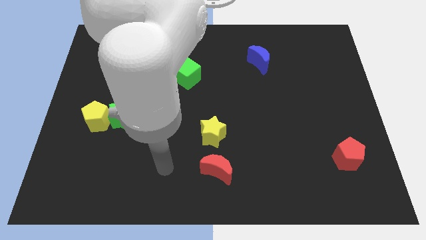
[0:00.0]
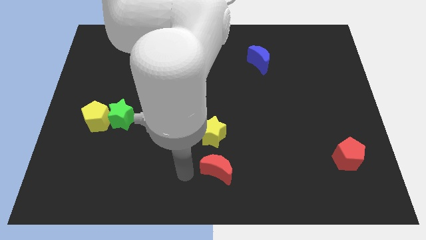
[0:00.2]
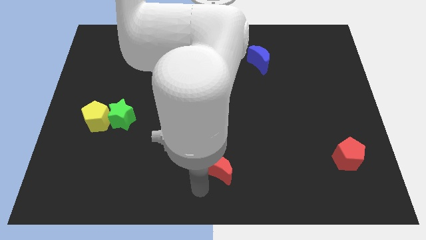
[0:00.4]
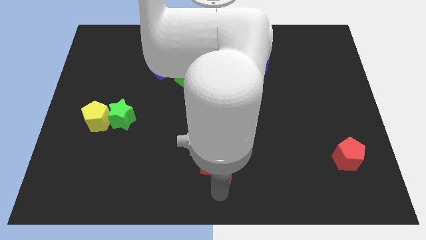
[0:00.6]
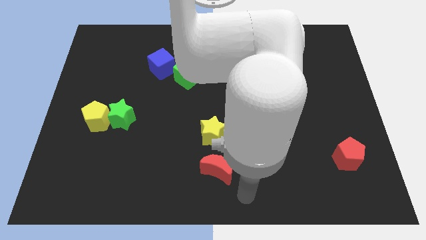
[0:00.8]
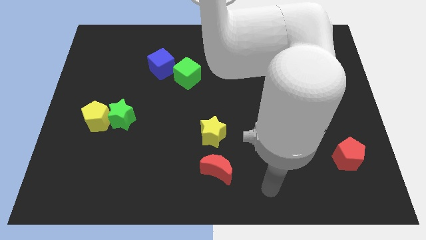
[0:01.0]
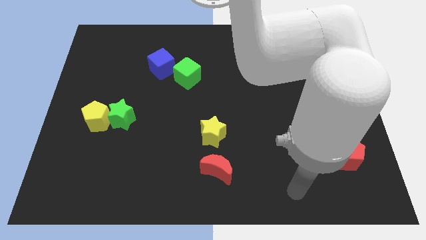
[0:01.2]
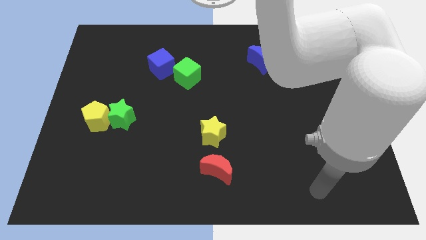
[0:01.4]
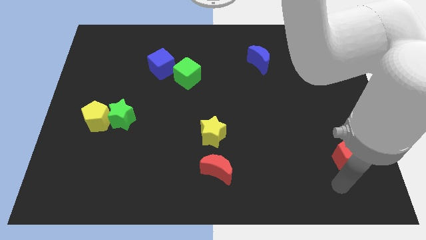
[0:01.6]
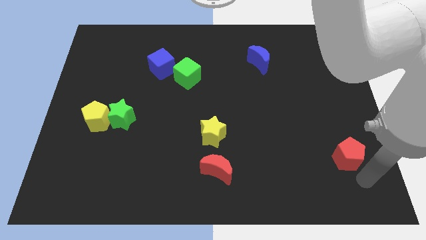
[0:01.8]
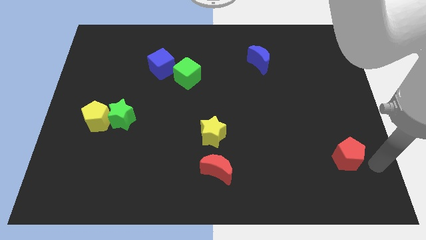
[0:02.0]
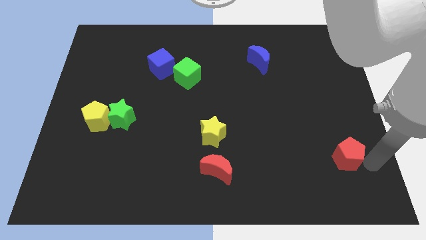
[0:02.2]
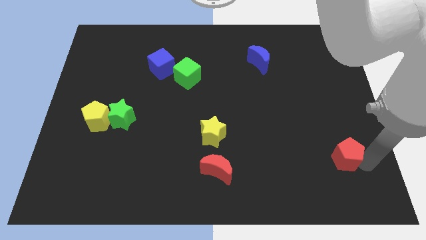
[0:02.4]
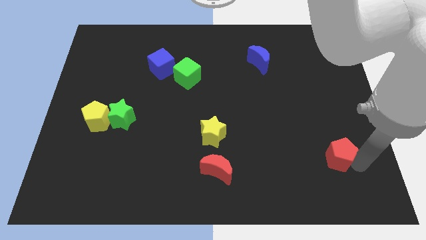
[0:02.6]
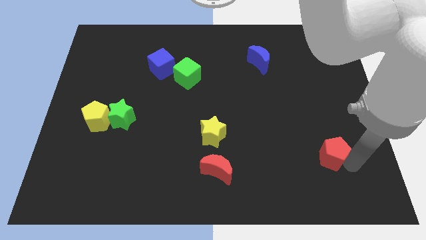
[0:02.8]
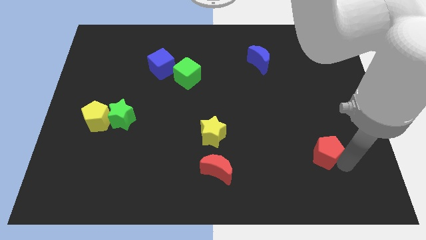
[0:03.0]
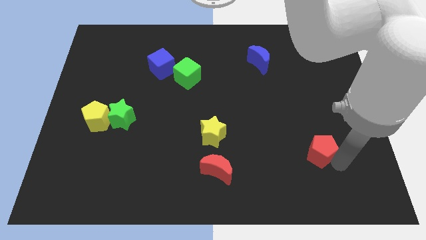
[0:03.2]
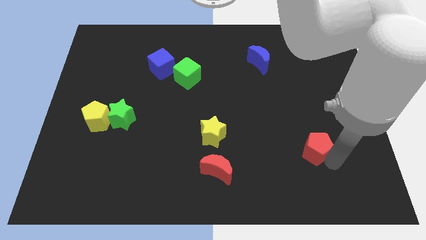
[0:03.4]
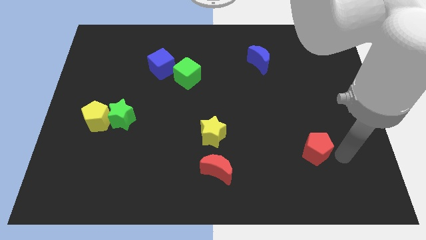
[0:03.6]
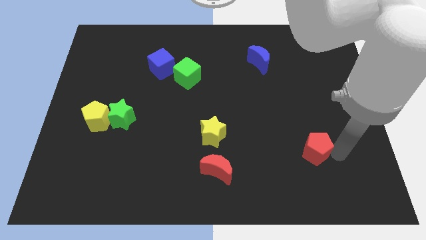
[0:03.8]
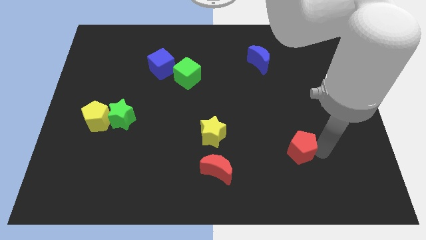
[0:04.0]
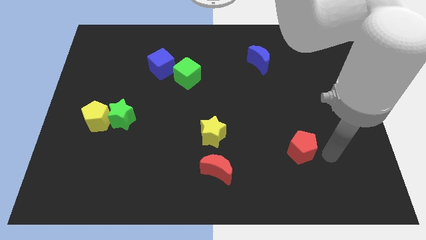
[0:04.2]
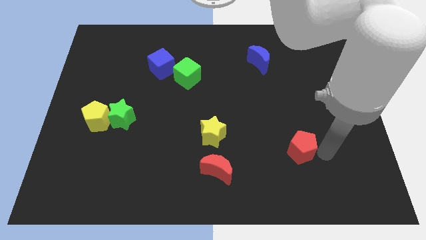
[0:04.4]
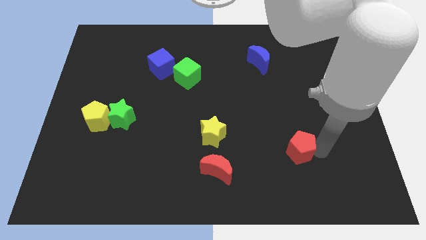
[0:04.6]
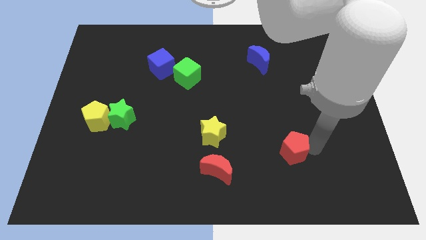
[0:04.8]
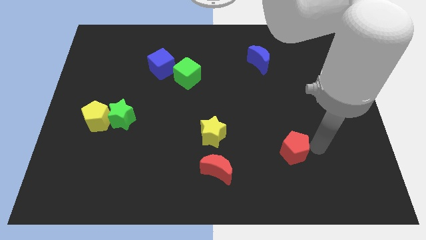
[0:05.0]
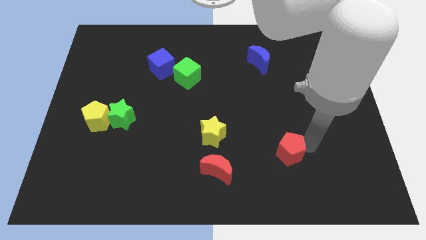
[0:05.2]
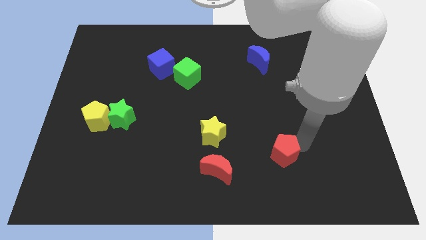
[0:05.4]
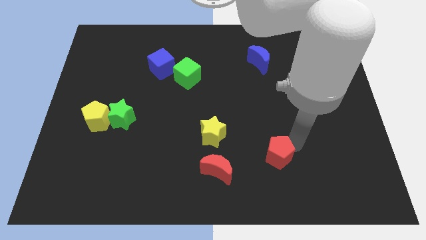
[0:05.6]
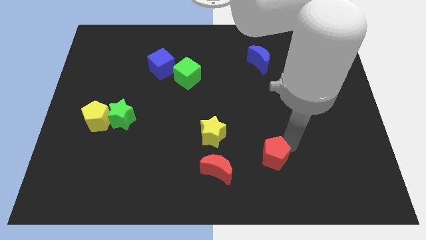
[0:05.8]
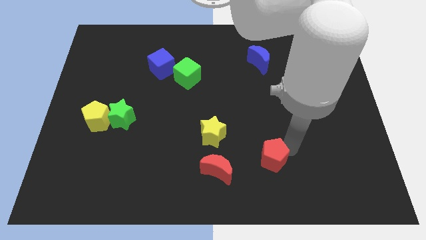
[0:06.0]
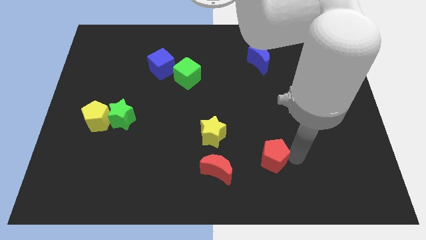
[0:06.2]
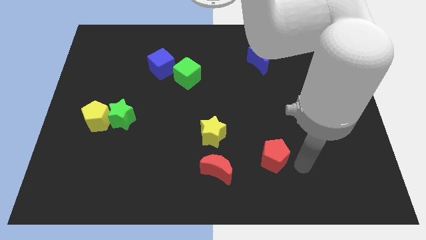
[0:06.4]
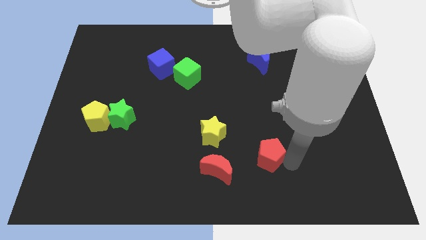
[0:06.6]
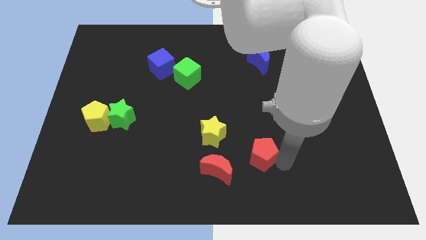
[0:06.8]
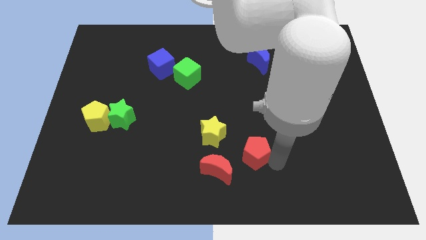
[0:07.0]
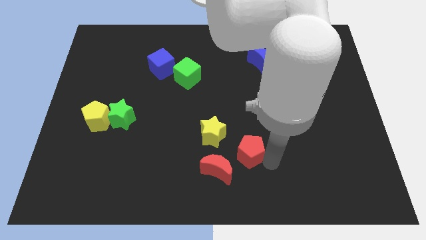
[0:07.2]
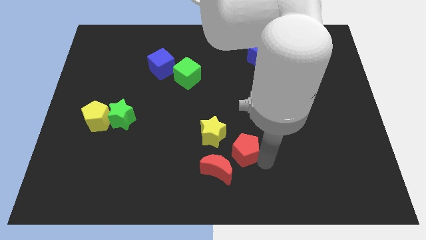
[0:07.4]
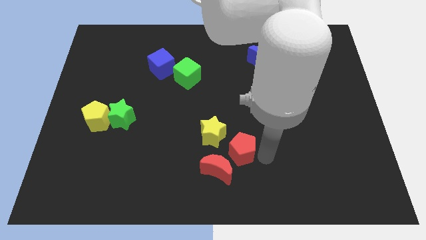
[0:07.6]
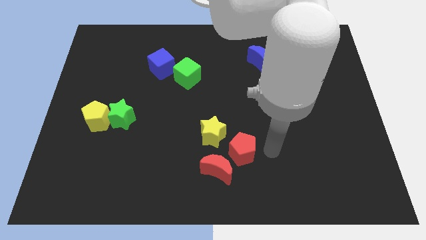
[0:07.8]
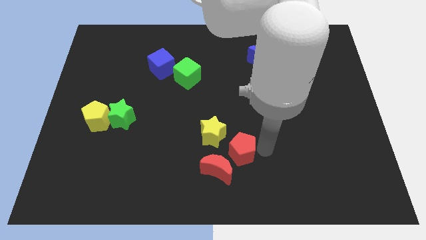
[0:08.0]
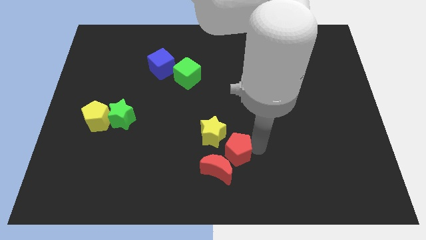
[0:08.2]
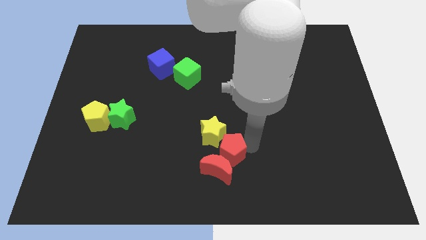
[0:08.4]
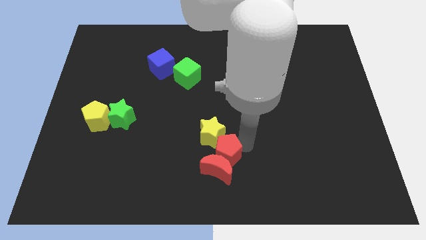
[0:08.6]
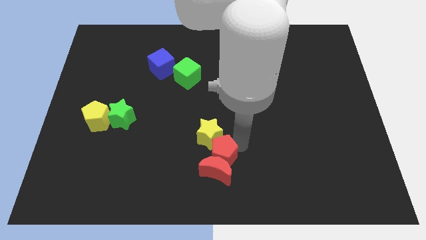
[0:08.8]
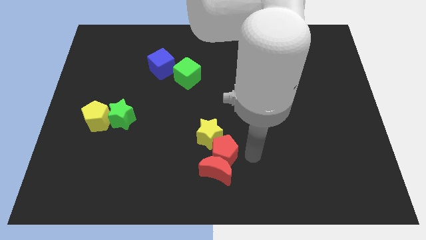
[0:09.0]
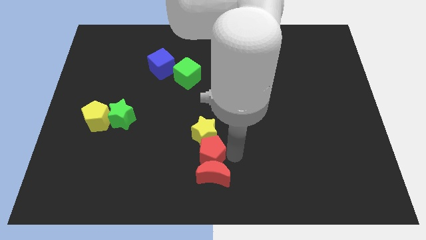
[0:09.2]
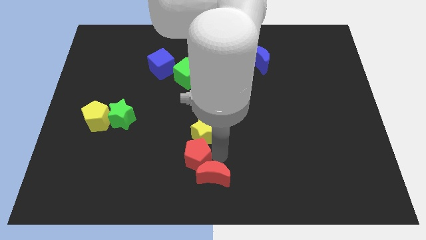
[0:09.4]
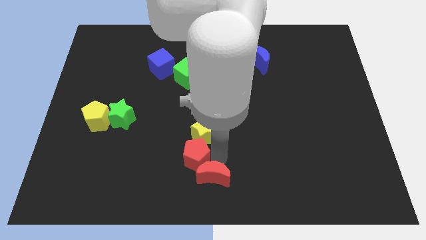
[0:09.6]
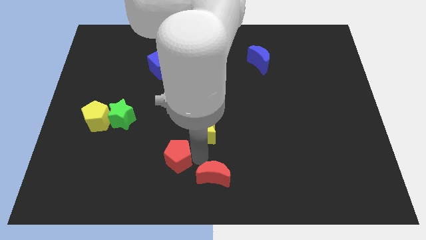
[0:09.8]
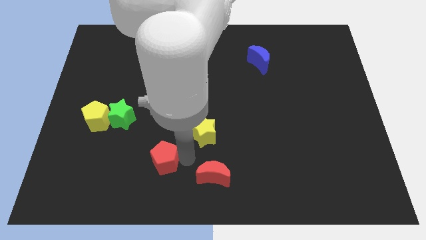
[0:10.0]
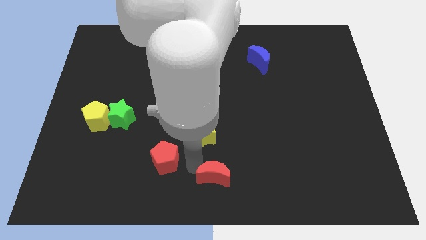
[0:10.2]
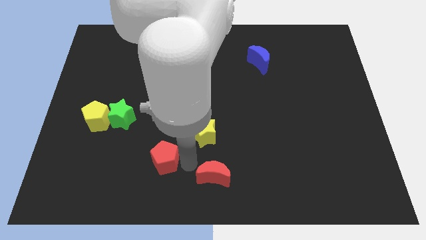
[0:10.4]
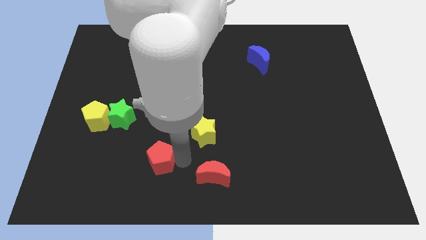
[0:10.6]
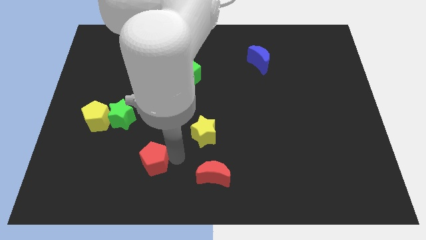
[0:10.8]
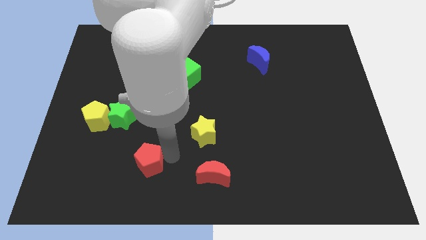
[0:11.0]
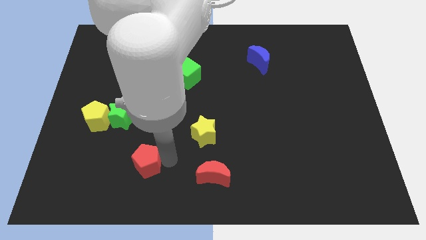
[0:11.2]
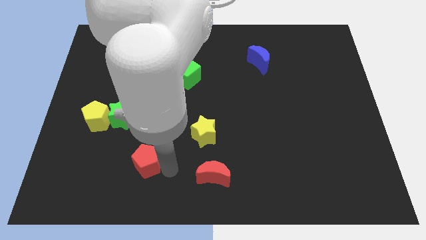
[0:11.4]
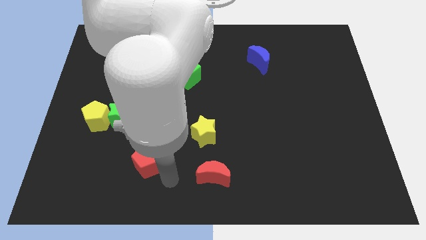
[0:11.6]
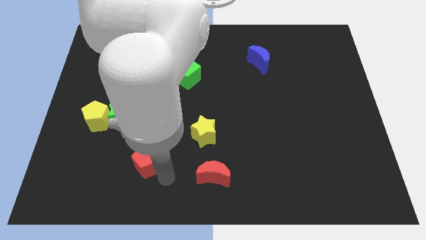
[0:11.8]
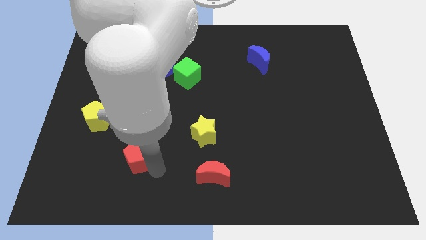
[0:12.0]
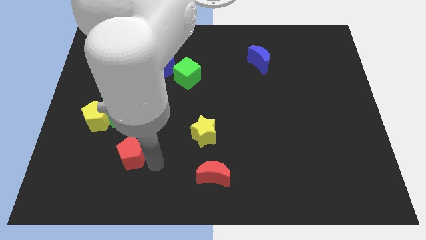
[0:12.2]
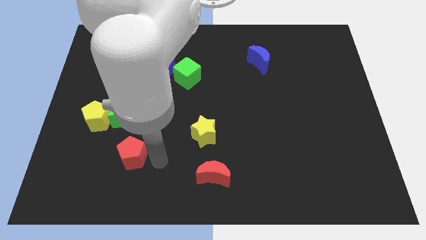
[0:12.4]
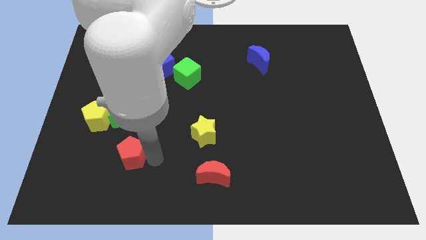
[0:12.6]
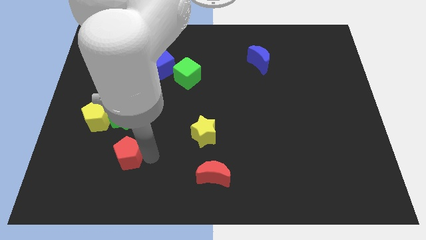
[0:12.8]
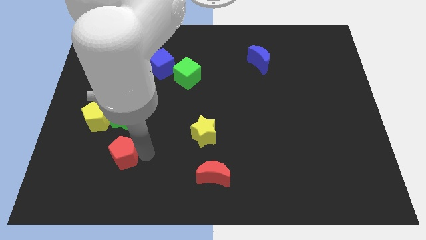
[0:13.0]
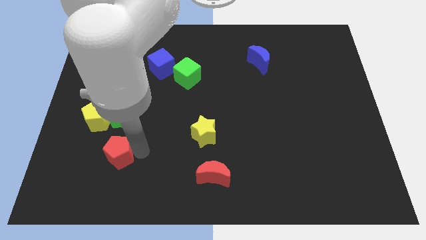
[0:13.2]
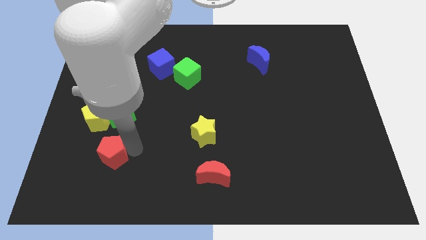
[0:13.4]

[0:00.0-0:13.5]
push the red pentagon to the bottom of the yellow pentagon
